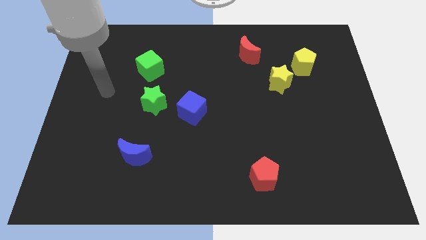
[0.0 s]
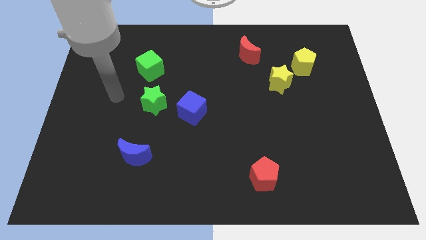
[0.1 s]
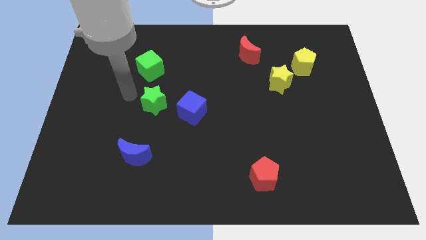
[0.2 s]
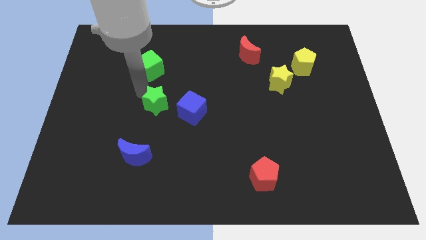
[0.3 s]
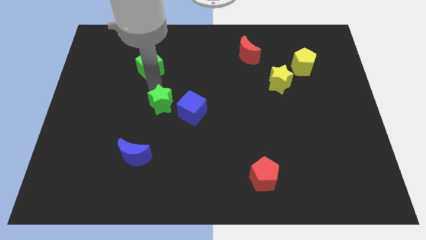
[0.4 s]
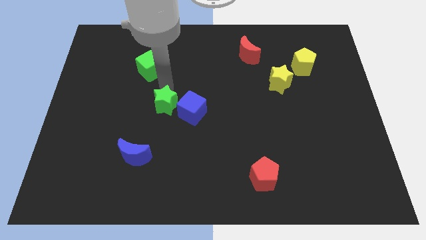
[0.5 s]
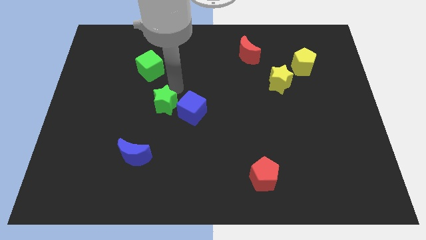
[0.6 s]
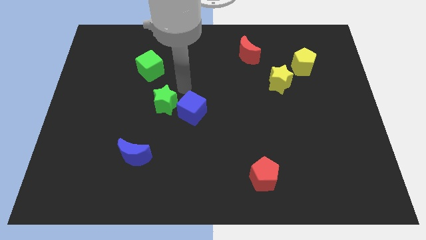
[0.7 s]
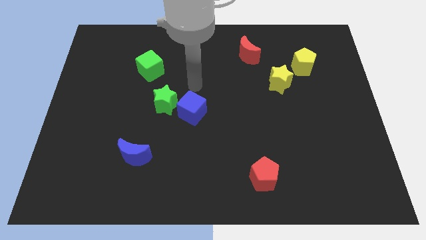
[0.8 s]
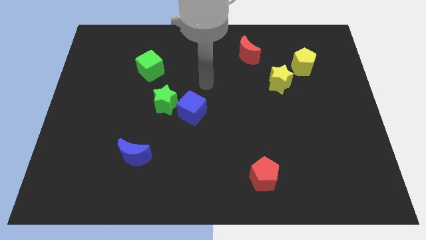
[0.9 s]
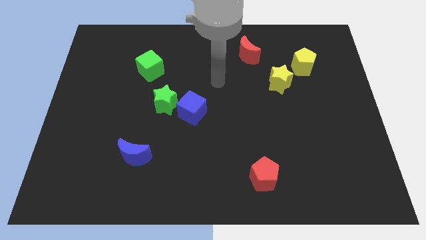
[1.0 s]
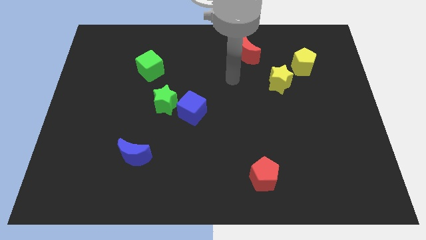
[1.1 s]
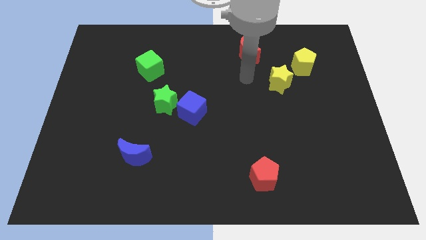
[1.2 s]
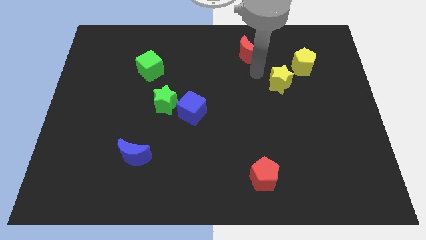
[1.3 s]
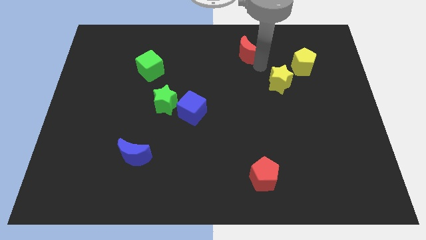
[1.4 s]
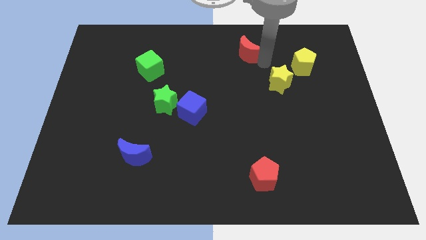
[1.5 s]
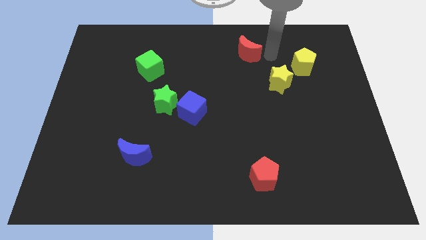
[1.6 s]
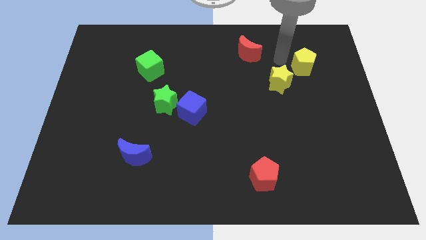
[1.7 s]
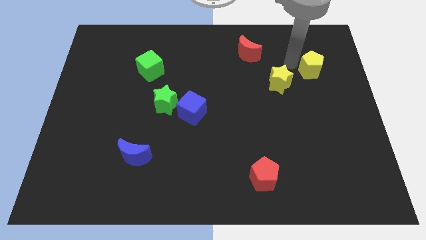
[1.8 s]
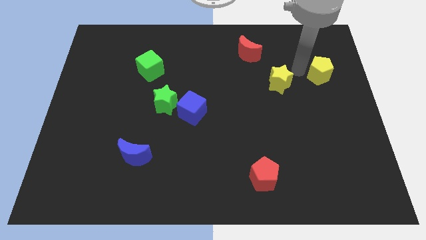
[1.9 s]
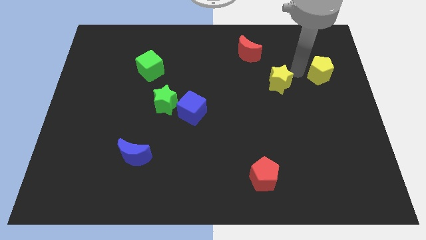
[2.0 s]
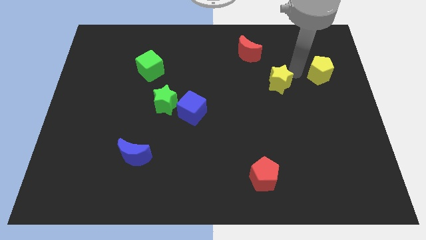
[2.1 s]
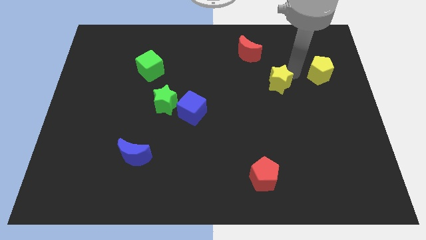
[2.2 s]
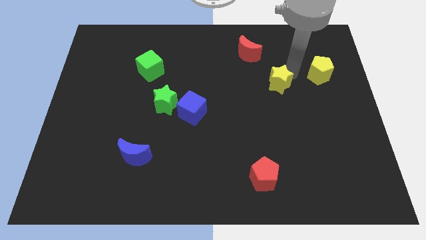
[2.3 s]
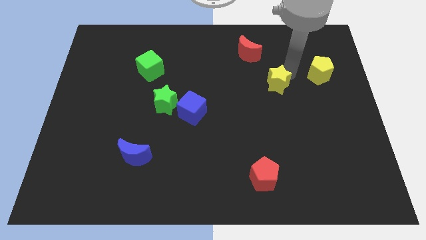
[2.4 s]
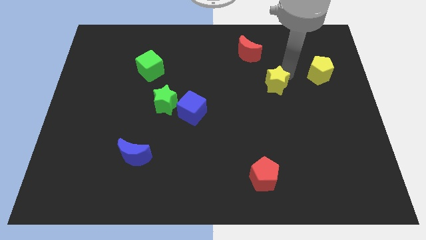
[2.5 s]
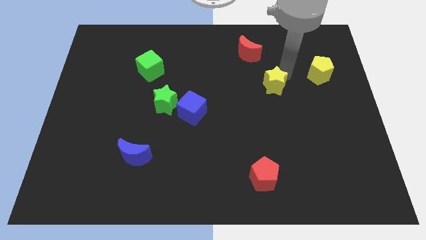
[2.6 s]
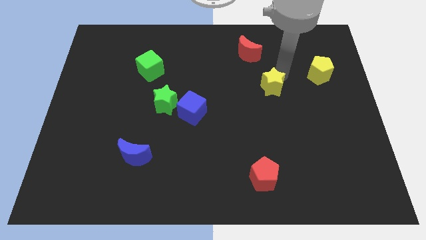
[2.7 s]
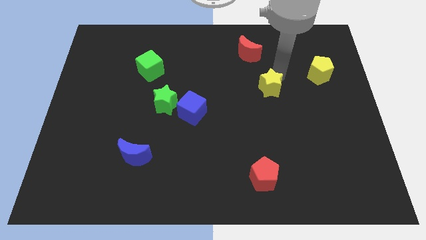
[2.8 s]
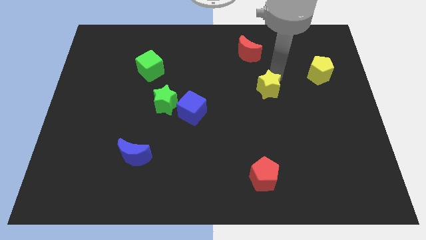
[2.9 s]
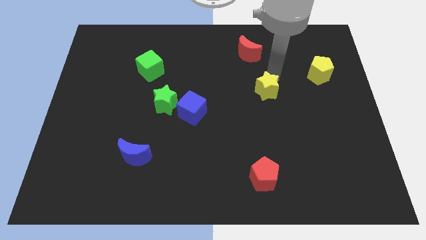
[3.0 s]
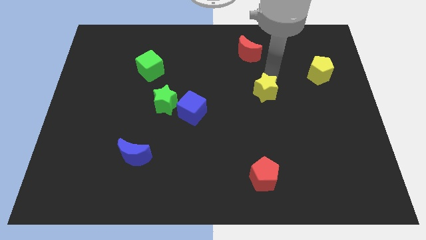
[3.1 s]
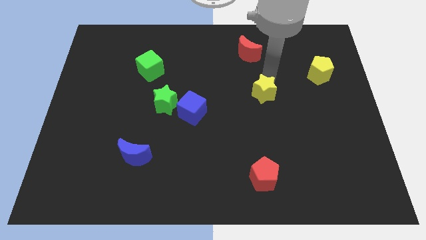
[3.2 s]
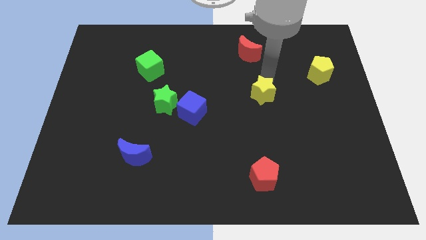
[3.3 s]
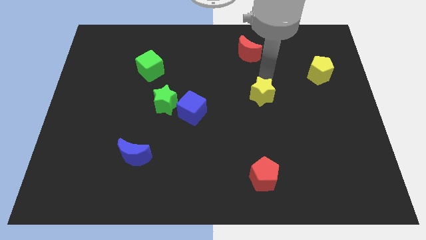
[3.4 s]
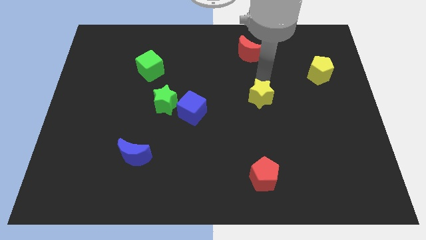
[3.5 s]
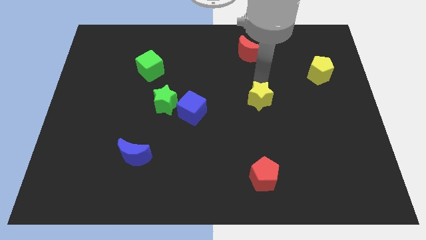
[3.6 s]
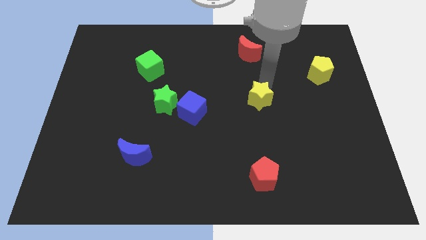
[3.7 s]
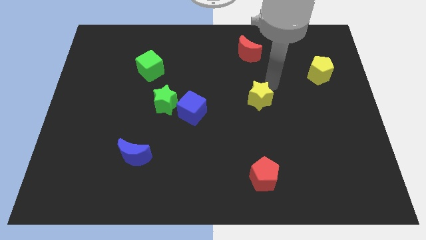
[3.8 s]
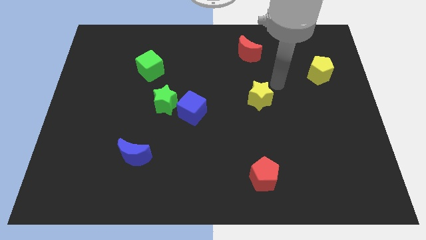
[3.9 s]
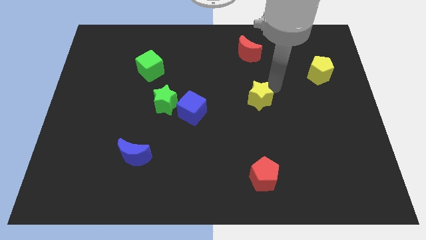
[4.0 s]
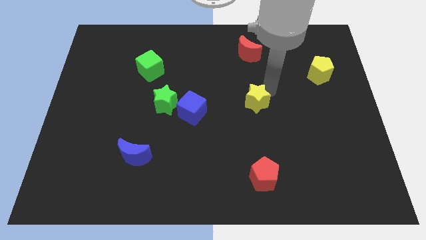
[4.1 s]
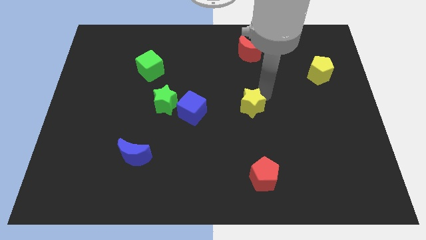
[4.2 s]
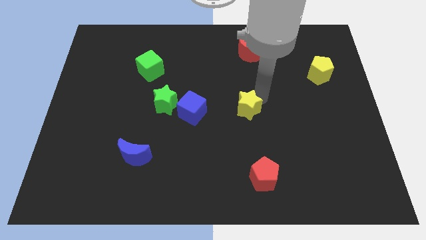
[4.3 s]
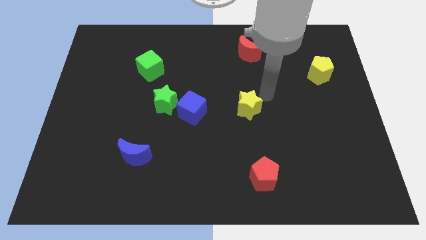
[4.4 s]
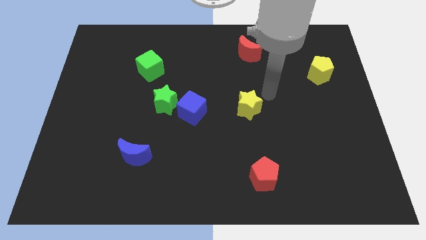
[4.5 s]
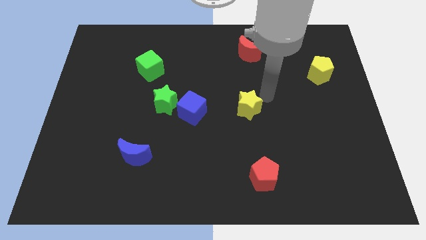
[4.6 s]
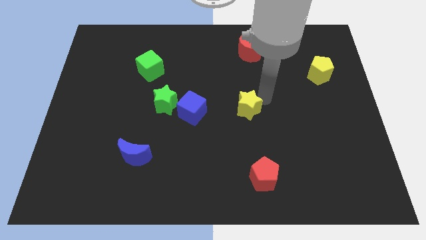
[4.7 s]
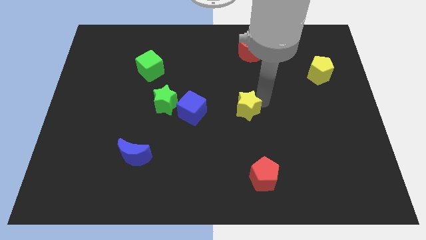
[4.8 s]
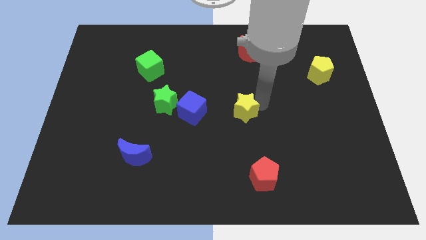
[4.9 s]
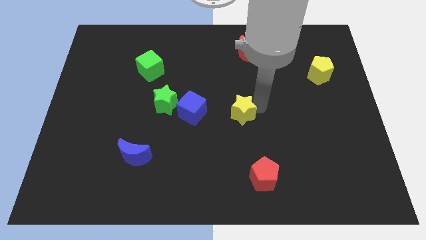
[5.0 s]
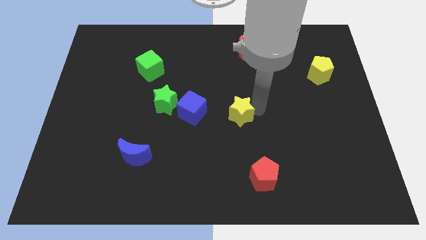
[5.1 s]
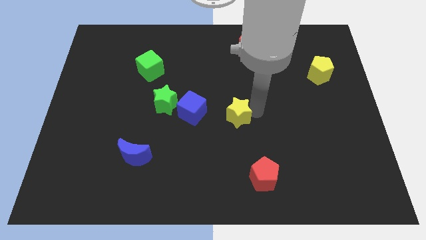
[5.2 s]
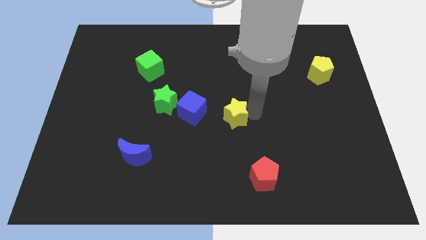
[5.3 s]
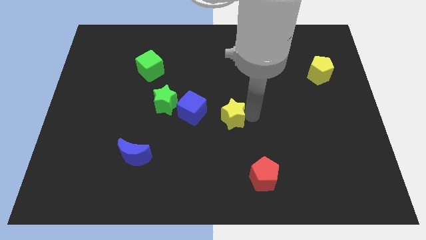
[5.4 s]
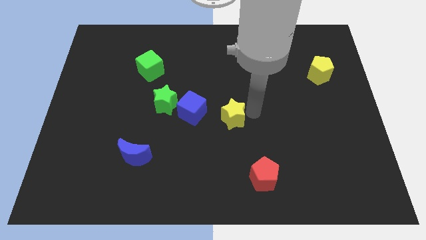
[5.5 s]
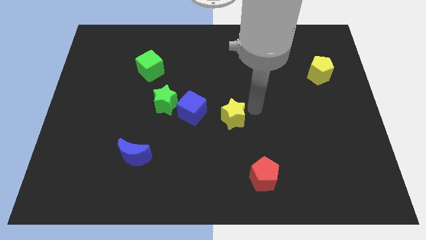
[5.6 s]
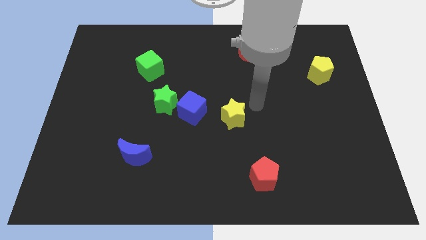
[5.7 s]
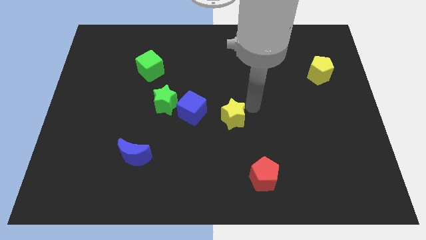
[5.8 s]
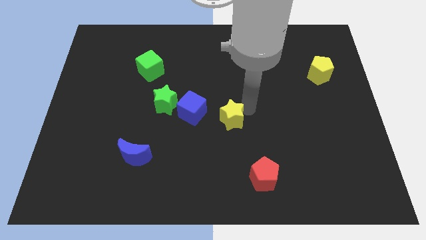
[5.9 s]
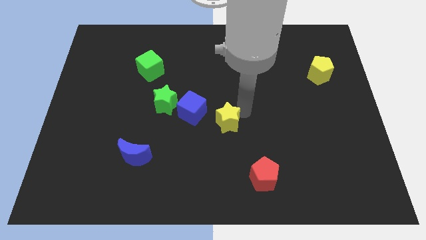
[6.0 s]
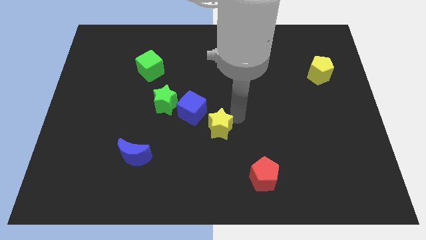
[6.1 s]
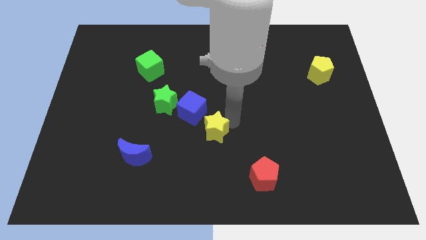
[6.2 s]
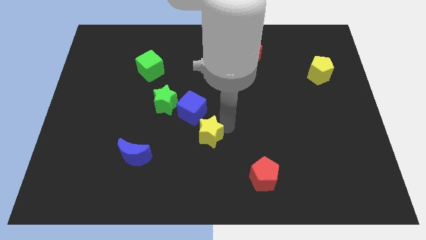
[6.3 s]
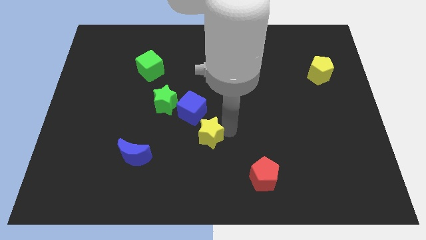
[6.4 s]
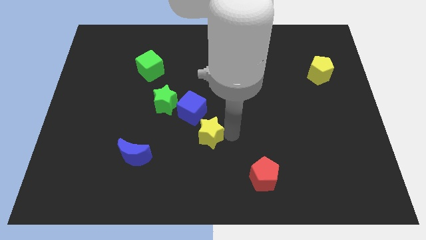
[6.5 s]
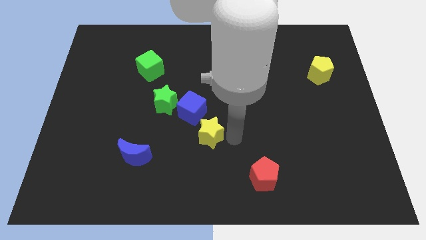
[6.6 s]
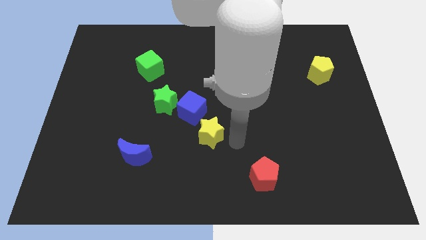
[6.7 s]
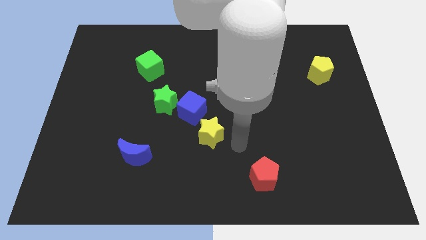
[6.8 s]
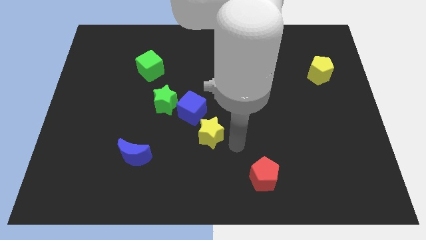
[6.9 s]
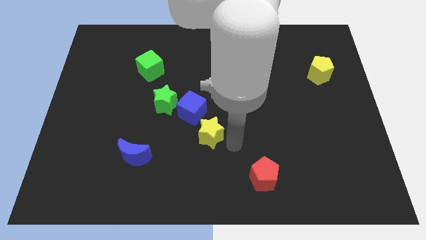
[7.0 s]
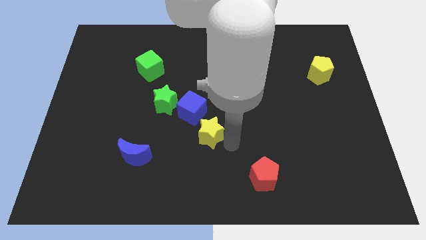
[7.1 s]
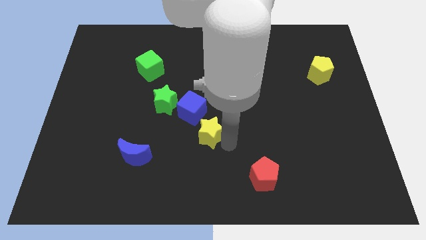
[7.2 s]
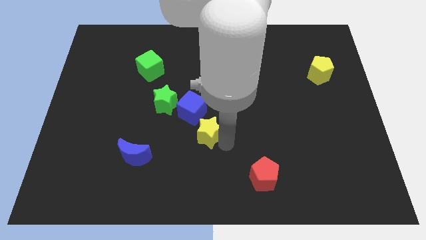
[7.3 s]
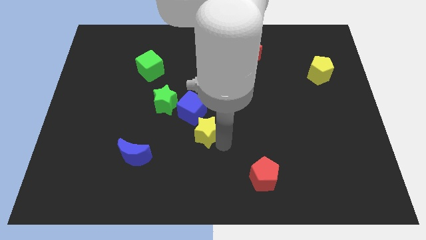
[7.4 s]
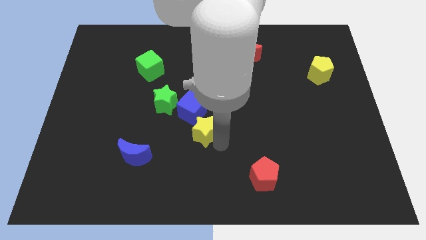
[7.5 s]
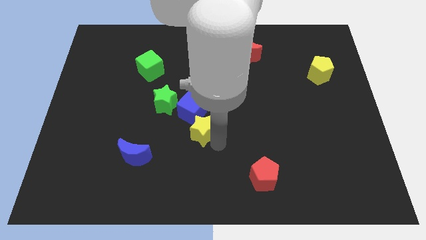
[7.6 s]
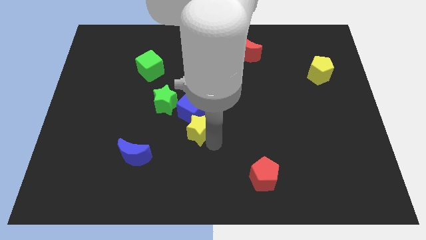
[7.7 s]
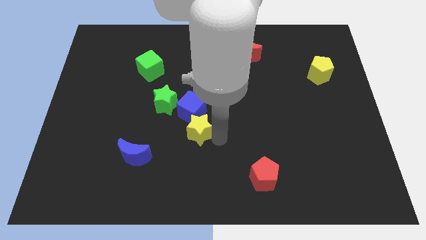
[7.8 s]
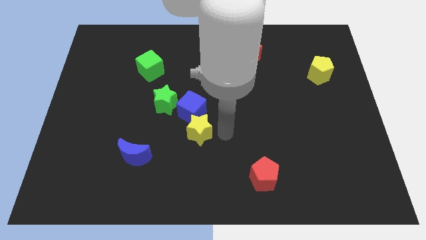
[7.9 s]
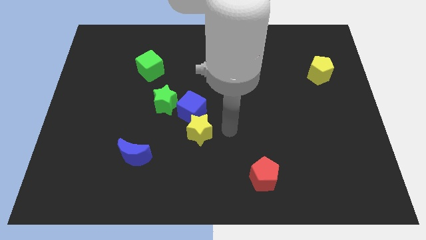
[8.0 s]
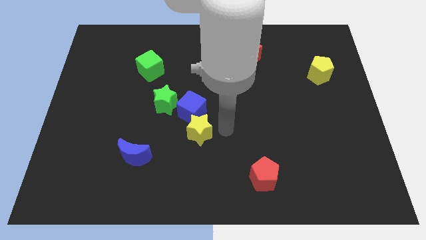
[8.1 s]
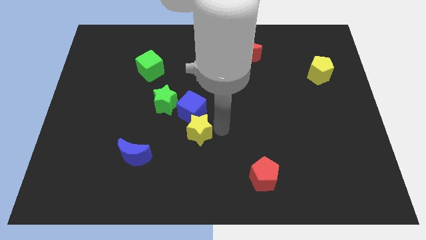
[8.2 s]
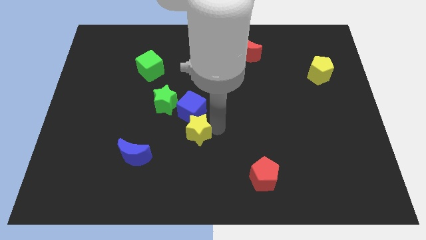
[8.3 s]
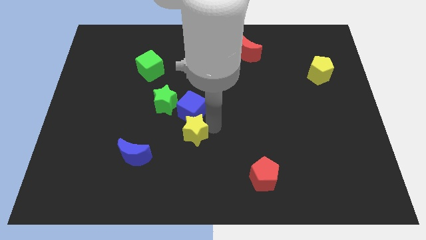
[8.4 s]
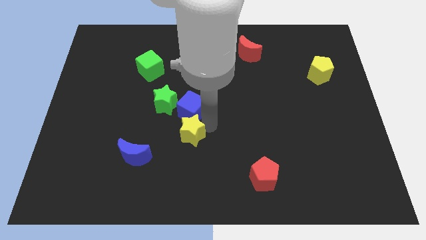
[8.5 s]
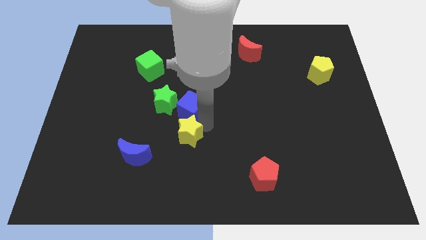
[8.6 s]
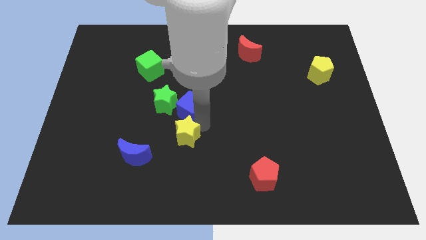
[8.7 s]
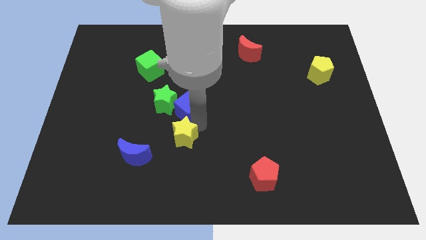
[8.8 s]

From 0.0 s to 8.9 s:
push the yellow star to the top right side of the blue moon
